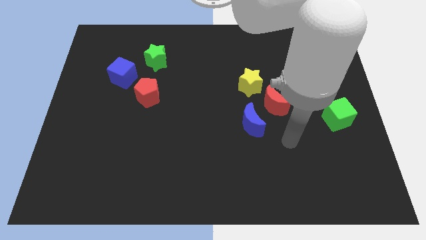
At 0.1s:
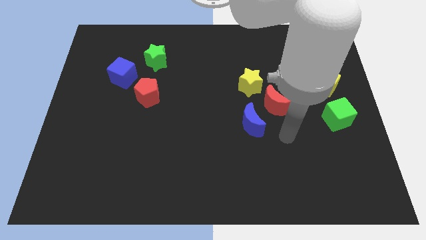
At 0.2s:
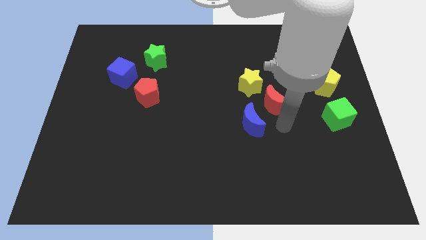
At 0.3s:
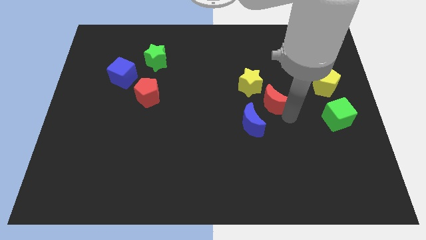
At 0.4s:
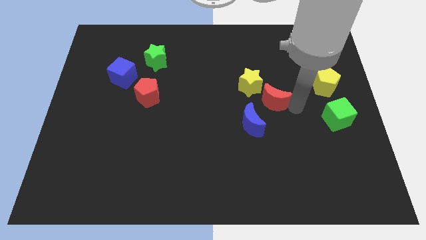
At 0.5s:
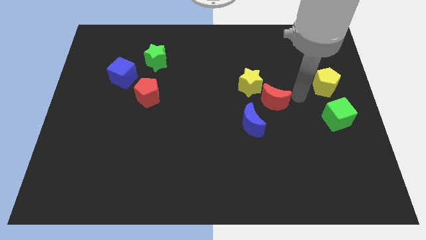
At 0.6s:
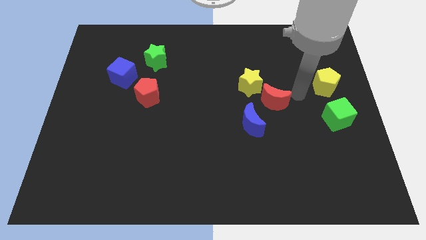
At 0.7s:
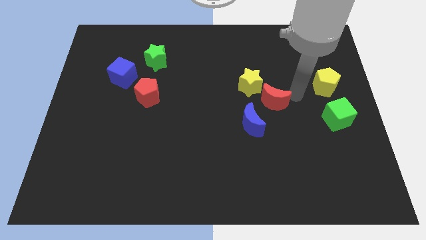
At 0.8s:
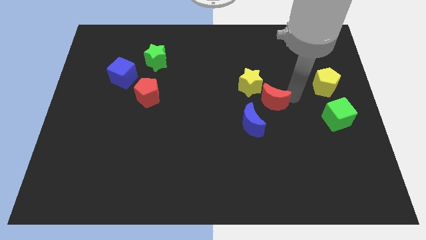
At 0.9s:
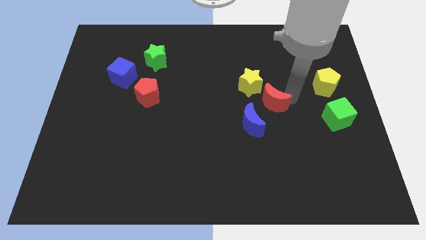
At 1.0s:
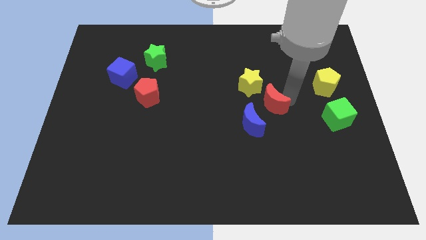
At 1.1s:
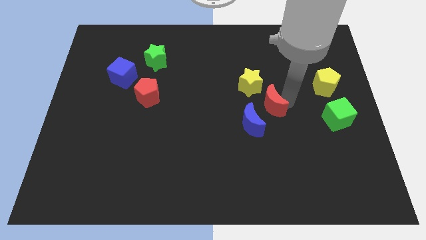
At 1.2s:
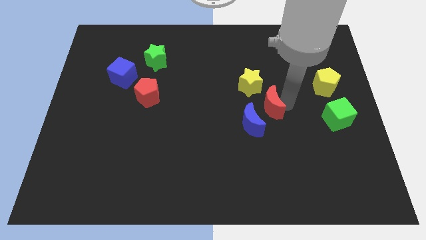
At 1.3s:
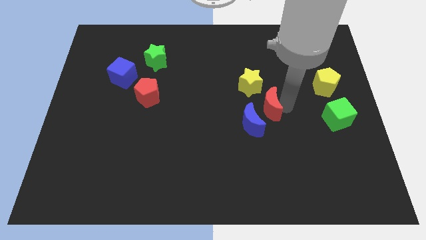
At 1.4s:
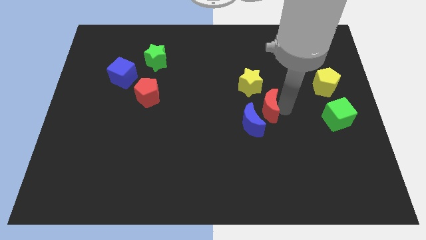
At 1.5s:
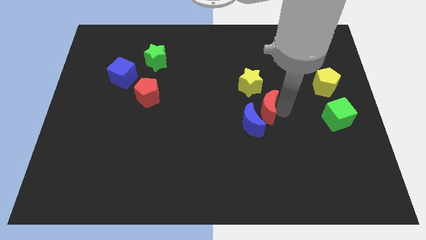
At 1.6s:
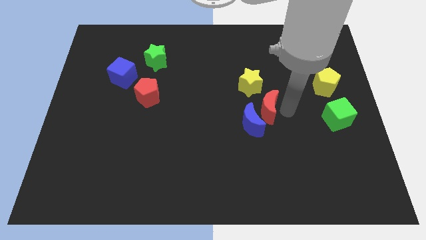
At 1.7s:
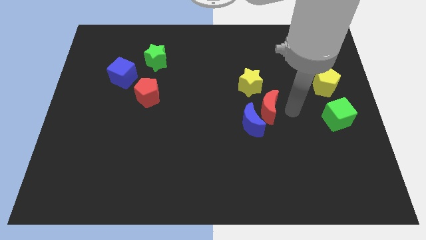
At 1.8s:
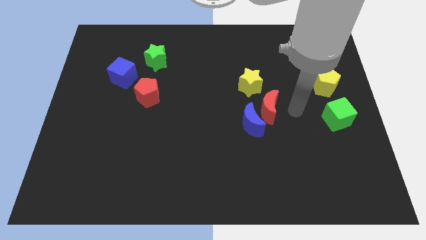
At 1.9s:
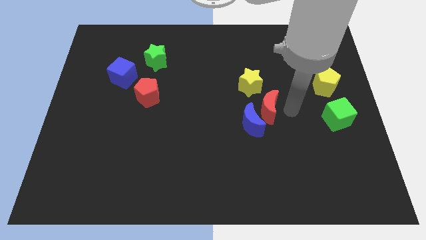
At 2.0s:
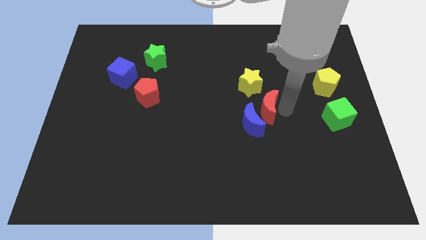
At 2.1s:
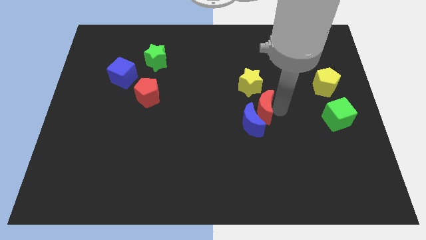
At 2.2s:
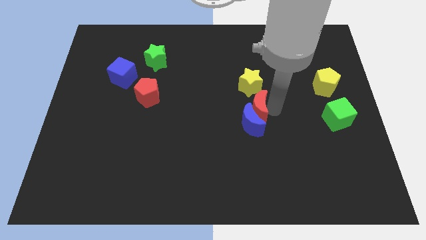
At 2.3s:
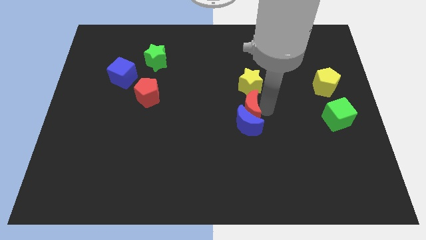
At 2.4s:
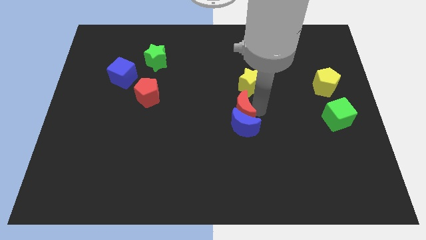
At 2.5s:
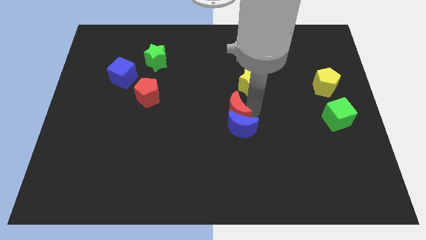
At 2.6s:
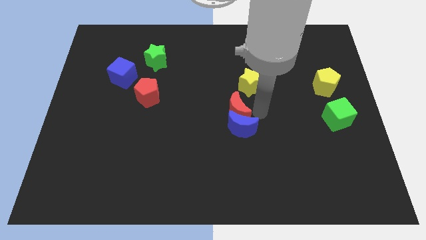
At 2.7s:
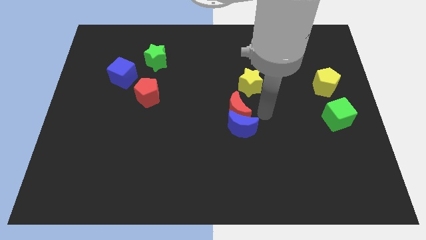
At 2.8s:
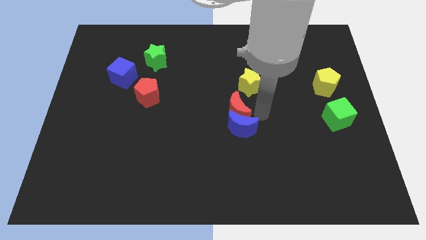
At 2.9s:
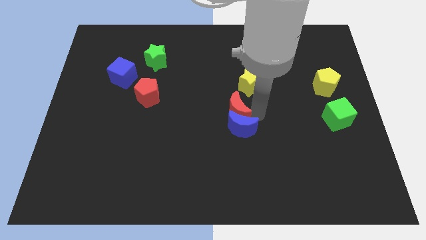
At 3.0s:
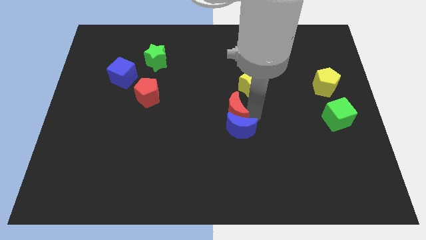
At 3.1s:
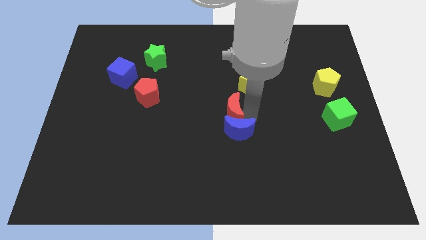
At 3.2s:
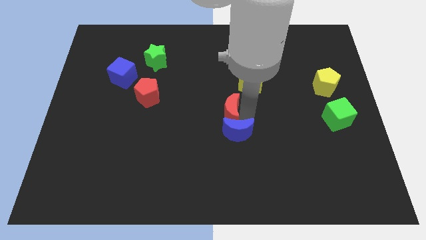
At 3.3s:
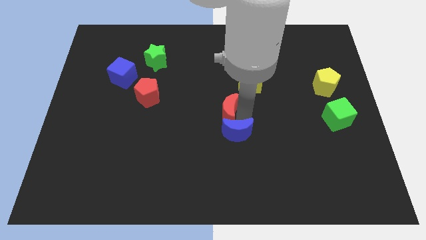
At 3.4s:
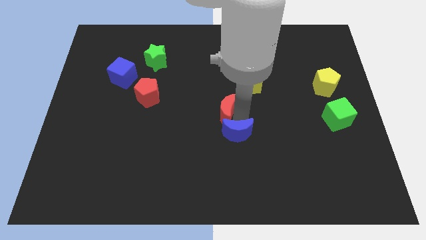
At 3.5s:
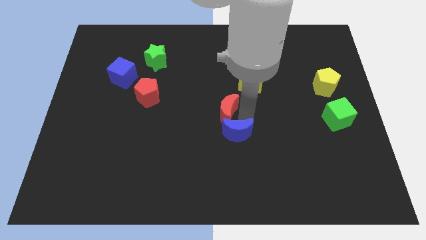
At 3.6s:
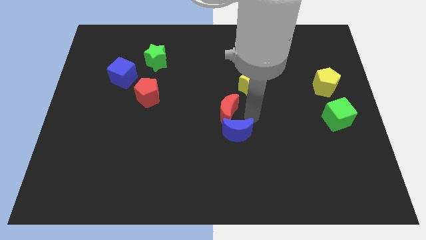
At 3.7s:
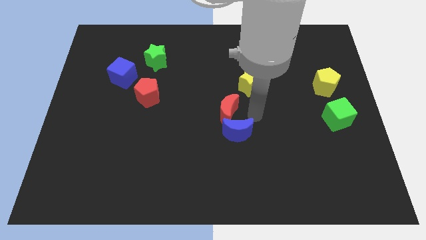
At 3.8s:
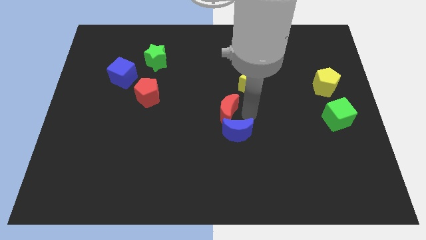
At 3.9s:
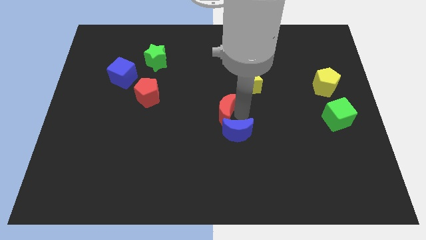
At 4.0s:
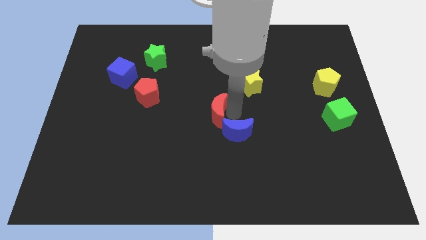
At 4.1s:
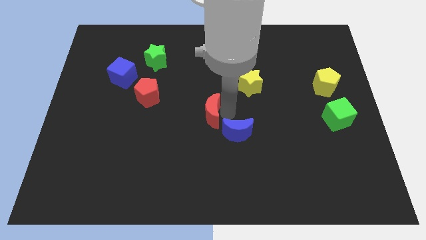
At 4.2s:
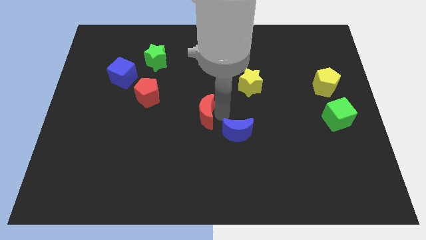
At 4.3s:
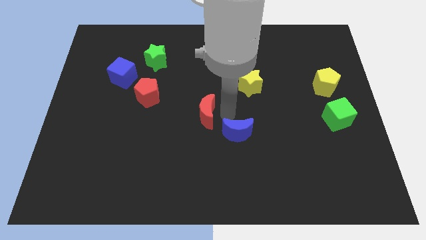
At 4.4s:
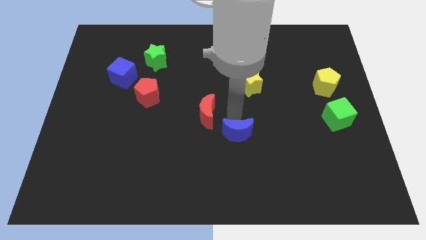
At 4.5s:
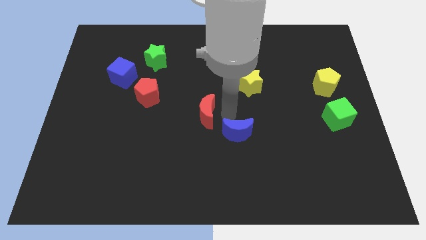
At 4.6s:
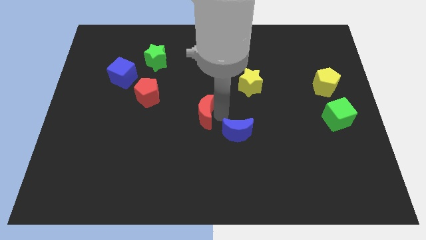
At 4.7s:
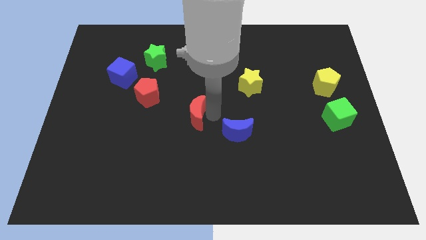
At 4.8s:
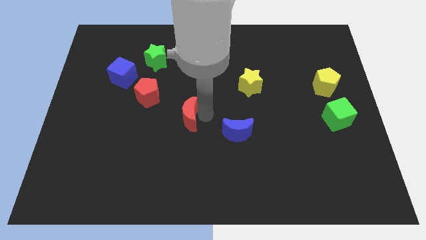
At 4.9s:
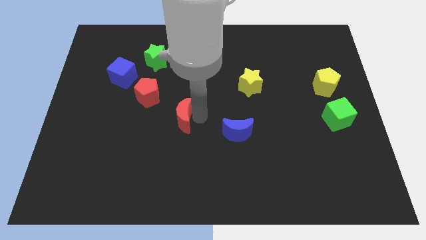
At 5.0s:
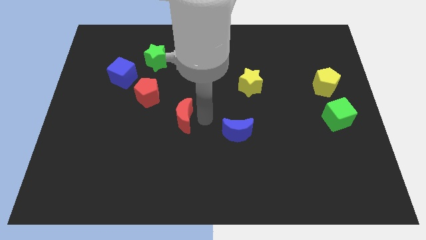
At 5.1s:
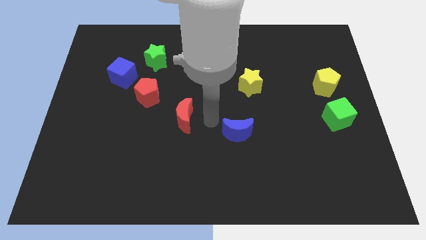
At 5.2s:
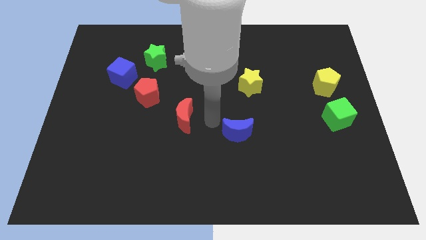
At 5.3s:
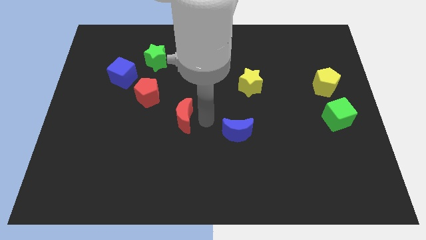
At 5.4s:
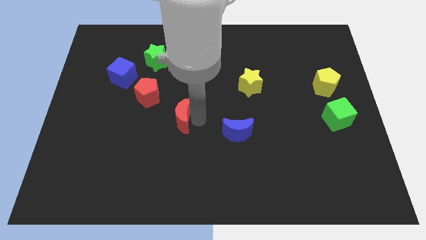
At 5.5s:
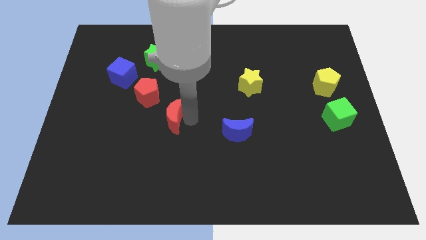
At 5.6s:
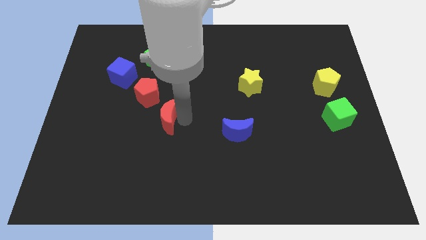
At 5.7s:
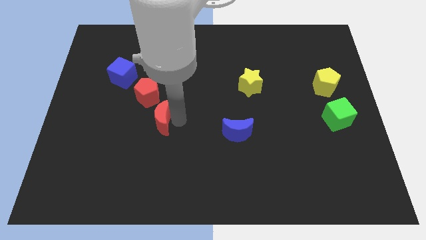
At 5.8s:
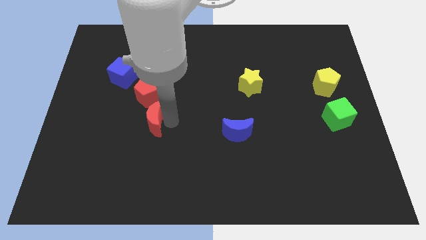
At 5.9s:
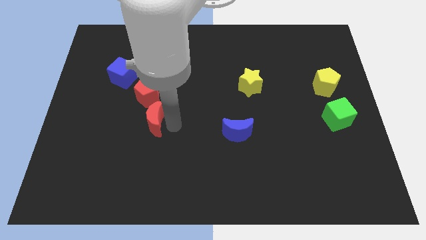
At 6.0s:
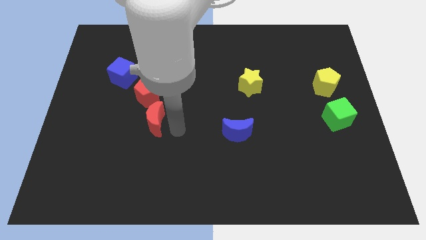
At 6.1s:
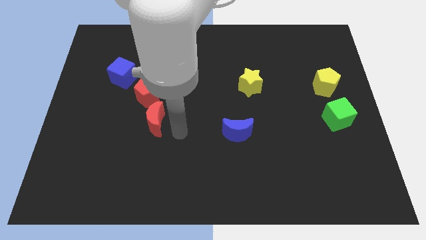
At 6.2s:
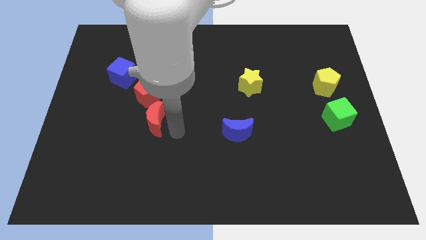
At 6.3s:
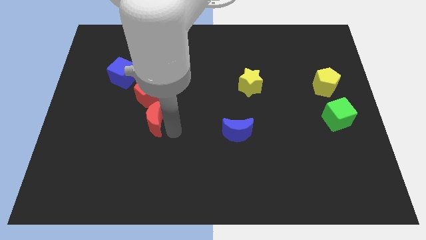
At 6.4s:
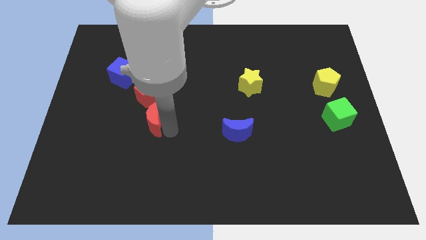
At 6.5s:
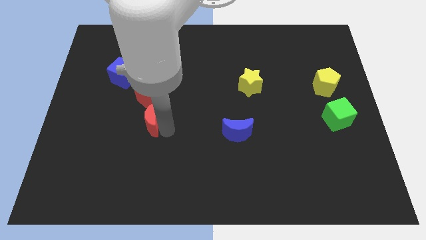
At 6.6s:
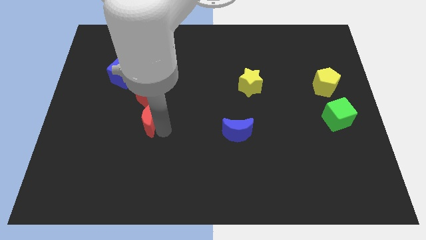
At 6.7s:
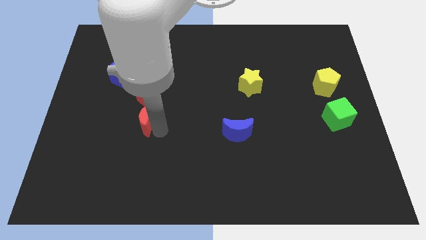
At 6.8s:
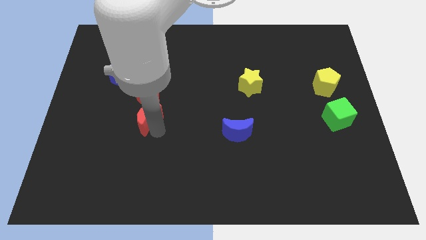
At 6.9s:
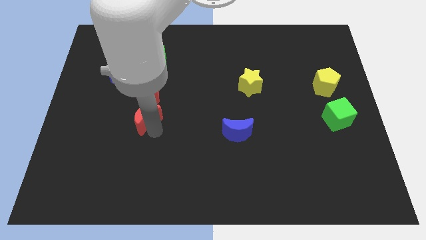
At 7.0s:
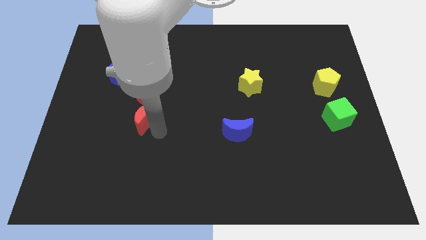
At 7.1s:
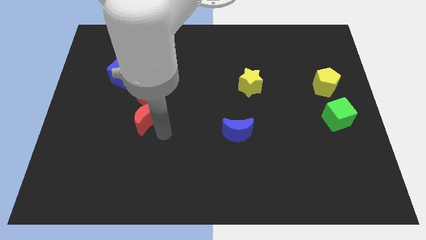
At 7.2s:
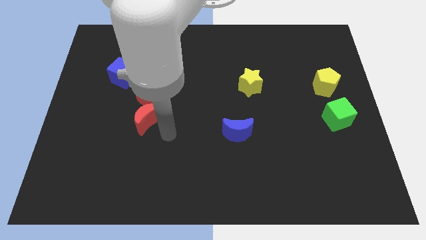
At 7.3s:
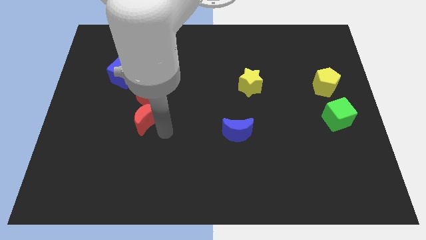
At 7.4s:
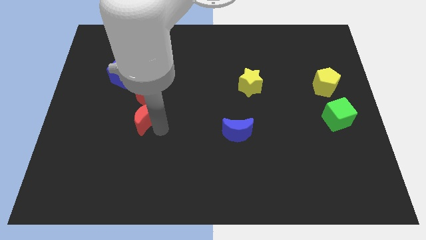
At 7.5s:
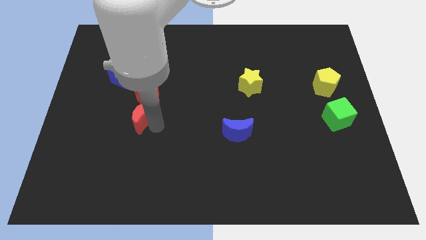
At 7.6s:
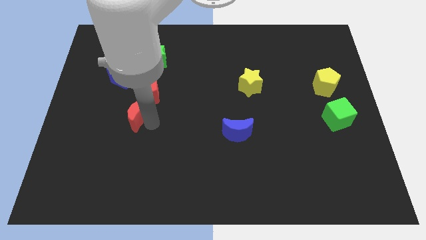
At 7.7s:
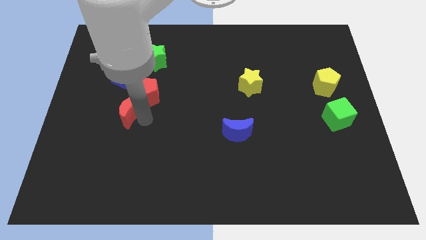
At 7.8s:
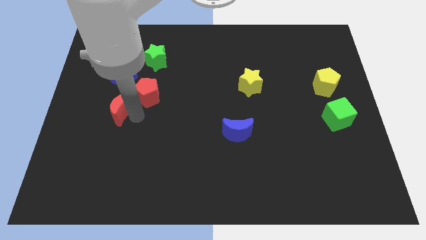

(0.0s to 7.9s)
move the red moon to the left of the red pentagon
